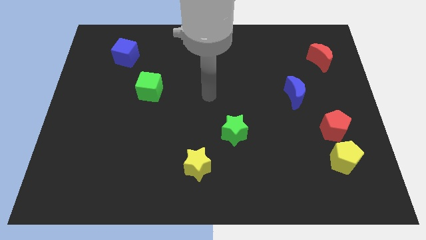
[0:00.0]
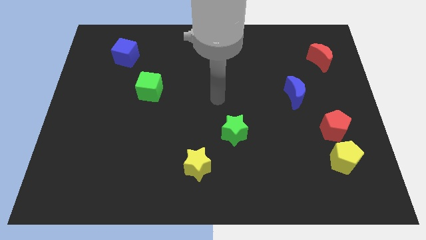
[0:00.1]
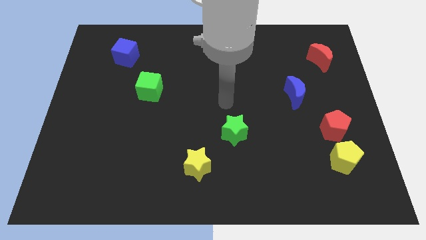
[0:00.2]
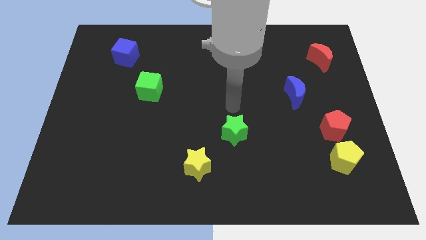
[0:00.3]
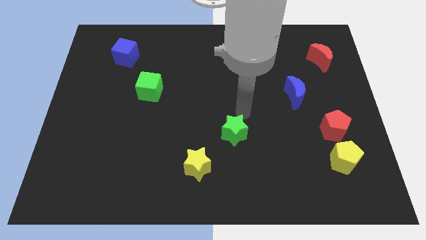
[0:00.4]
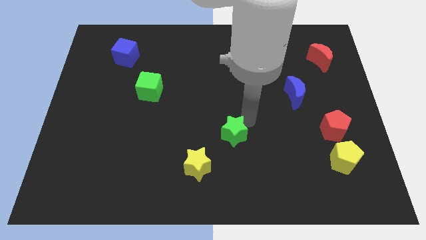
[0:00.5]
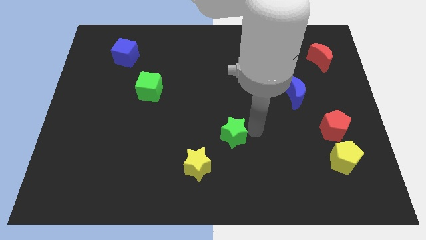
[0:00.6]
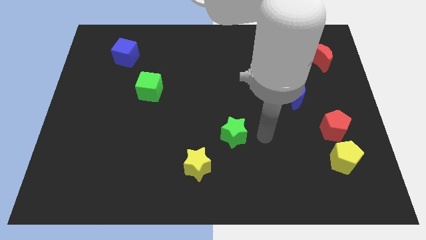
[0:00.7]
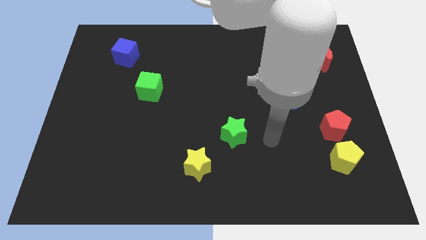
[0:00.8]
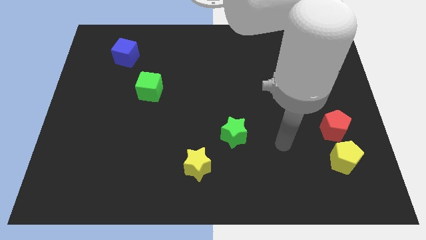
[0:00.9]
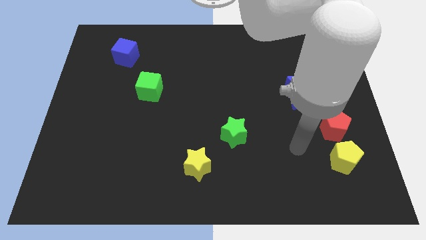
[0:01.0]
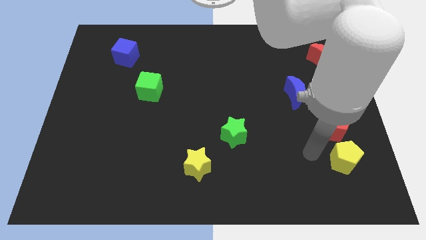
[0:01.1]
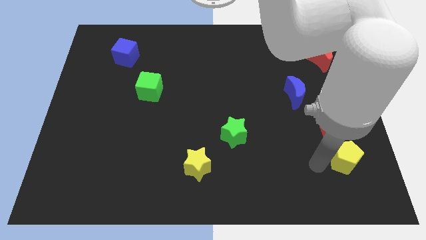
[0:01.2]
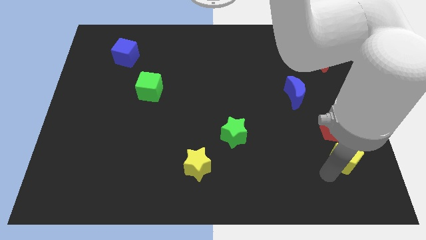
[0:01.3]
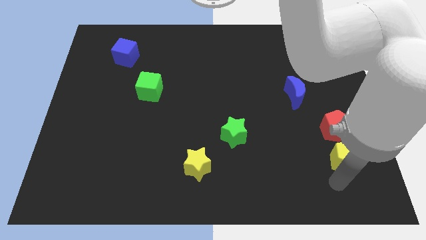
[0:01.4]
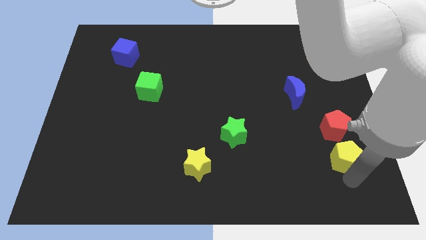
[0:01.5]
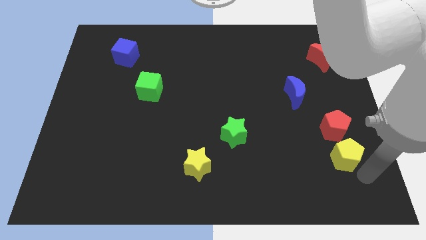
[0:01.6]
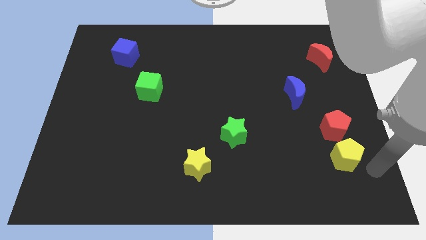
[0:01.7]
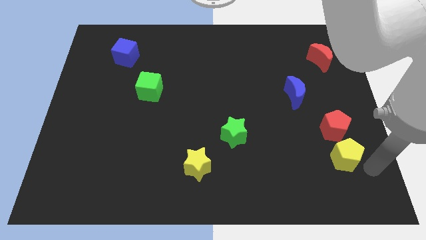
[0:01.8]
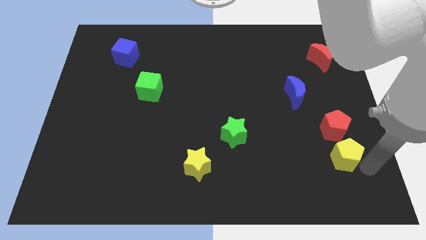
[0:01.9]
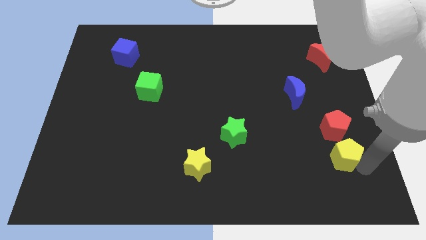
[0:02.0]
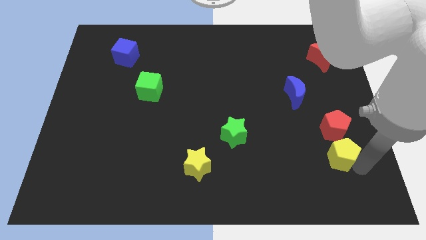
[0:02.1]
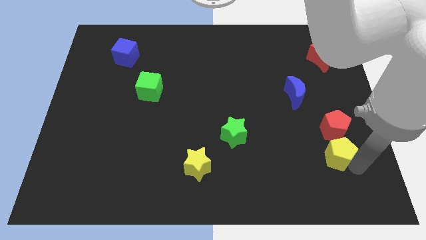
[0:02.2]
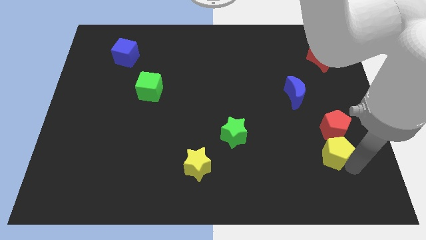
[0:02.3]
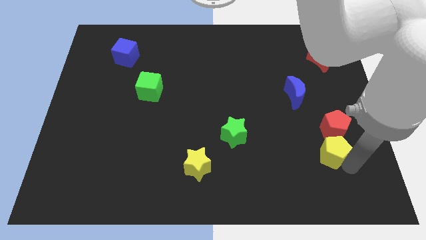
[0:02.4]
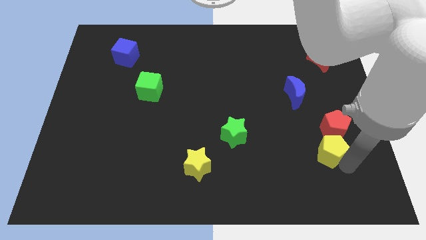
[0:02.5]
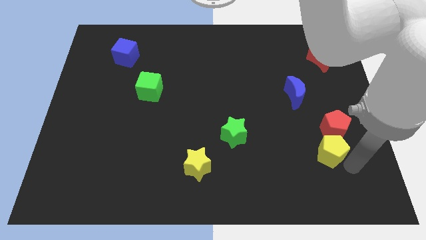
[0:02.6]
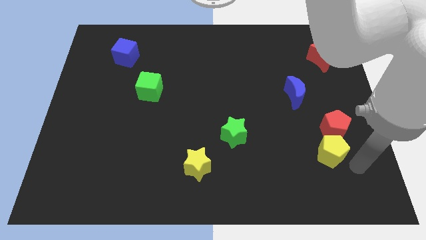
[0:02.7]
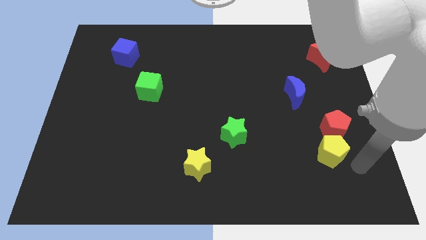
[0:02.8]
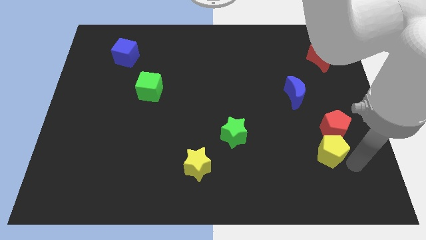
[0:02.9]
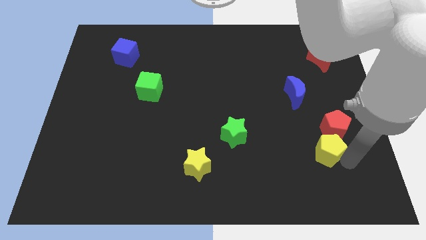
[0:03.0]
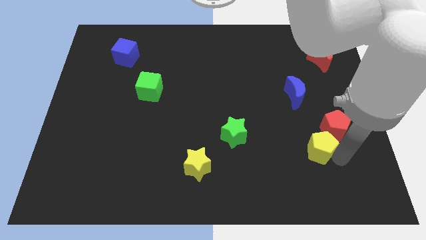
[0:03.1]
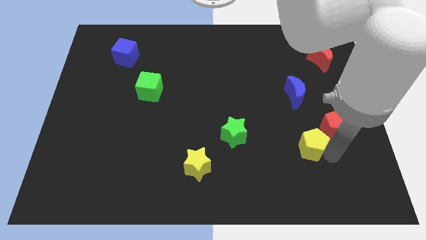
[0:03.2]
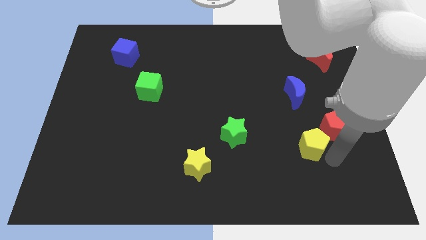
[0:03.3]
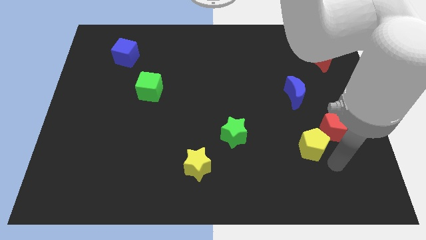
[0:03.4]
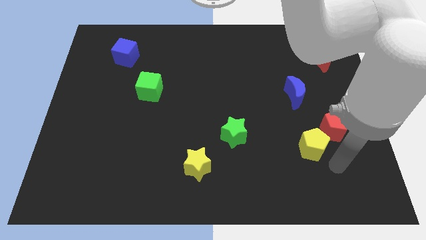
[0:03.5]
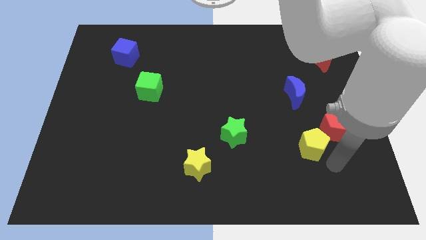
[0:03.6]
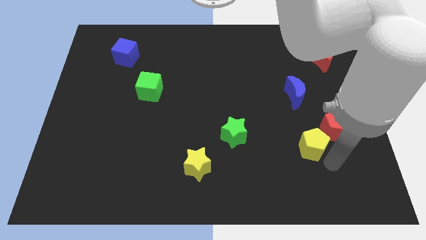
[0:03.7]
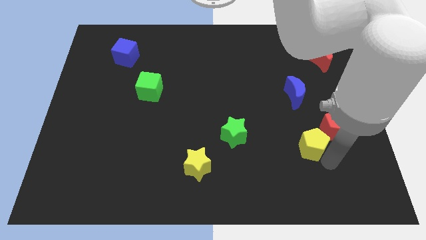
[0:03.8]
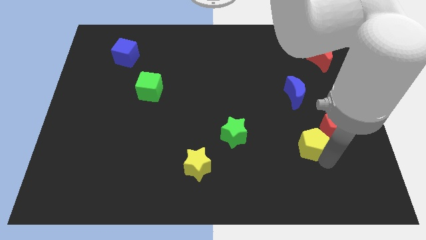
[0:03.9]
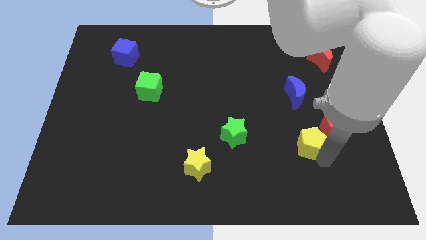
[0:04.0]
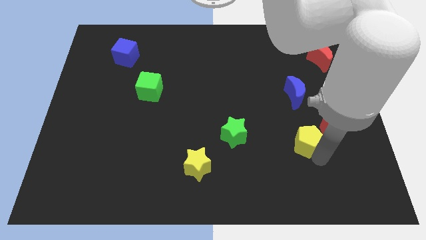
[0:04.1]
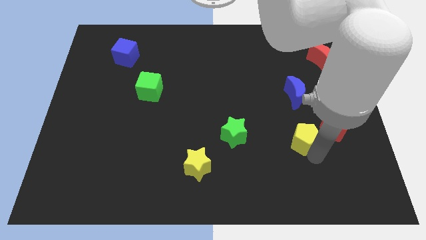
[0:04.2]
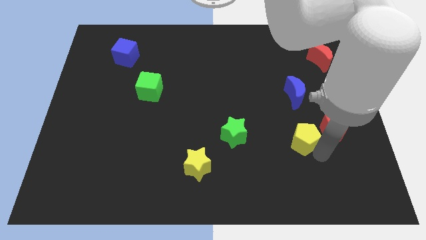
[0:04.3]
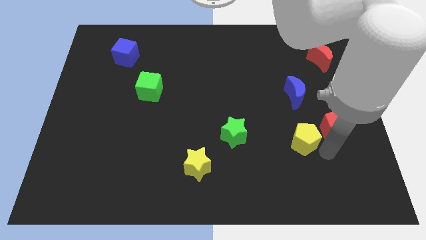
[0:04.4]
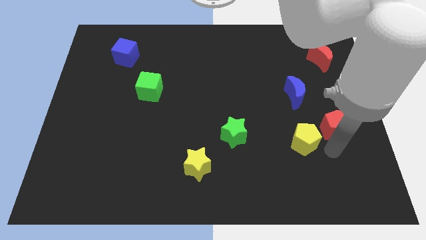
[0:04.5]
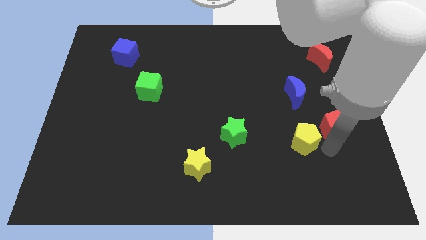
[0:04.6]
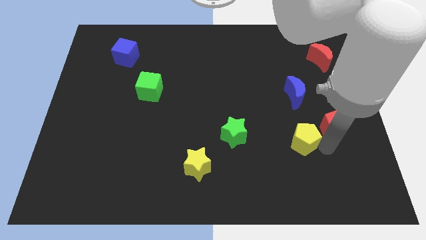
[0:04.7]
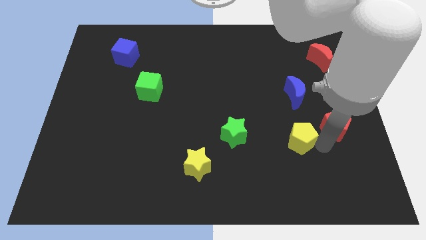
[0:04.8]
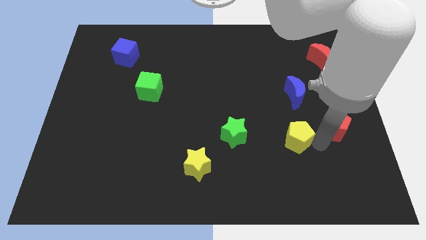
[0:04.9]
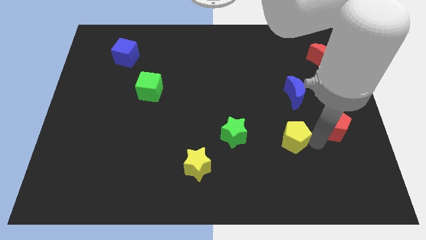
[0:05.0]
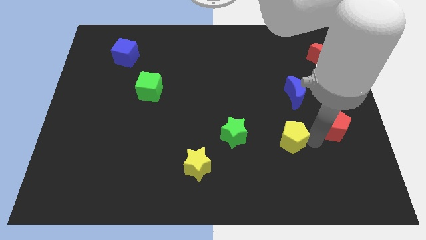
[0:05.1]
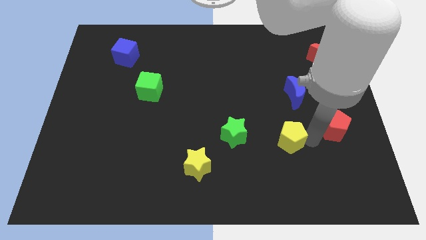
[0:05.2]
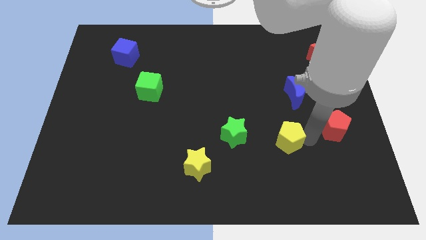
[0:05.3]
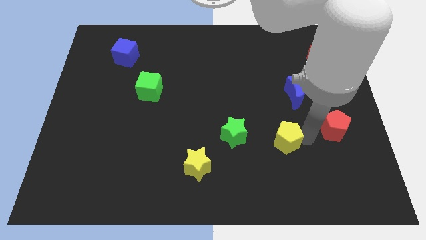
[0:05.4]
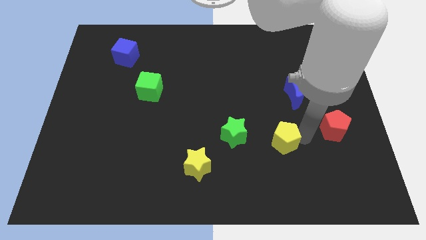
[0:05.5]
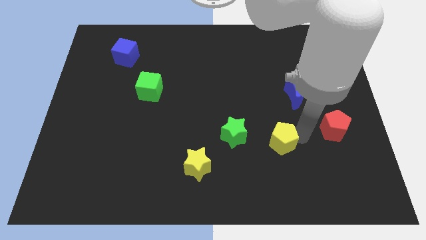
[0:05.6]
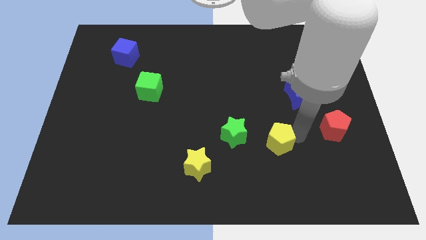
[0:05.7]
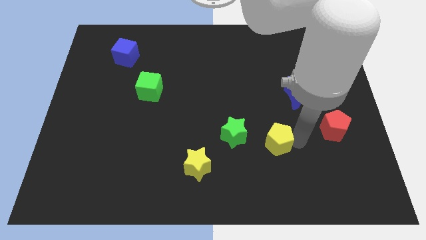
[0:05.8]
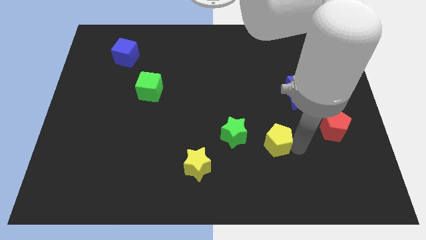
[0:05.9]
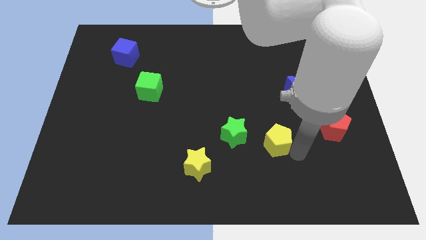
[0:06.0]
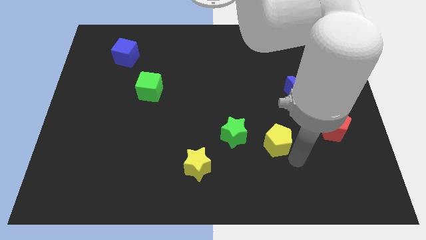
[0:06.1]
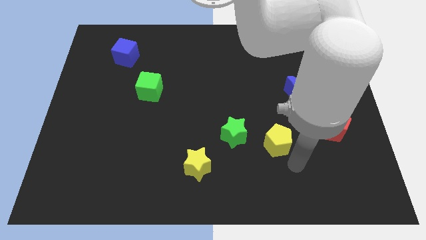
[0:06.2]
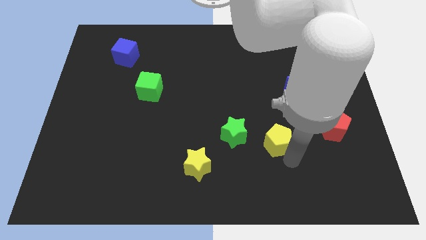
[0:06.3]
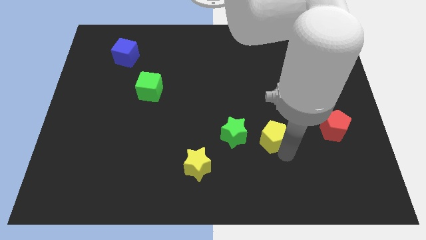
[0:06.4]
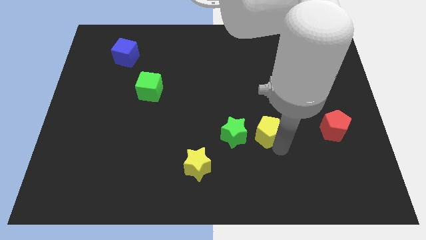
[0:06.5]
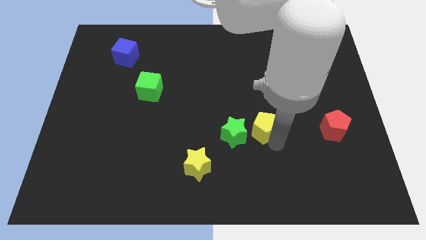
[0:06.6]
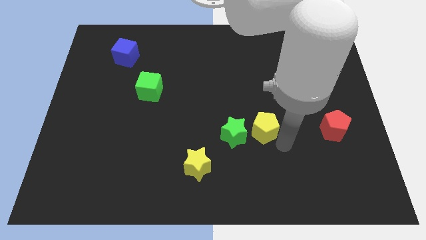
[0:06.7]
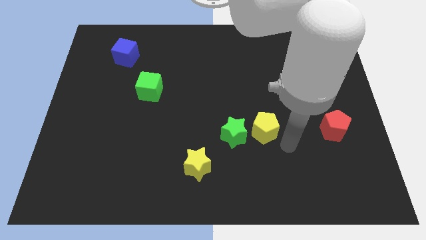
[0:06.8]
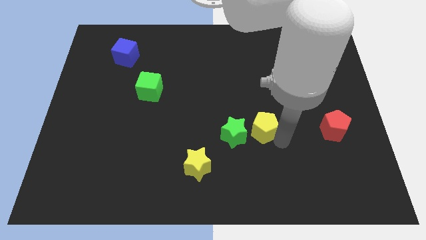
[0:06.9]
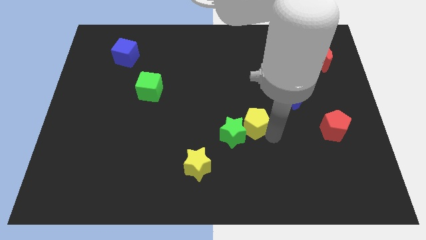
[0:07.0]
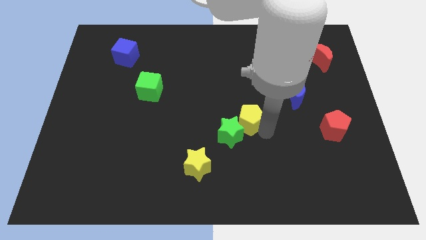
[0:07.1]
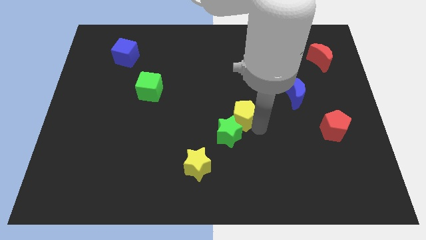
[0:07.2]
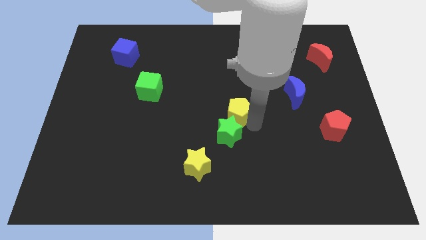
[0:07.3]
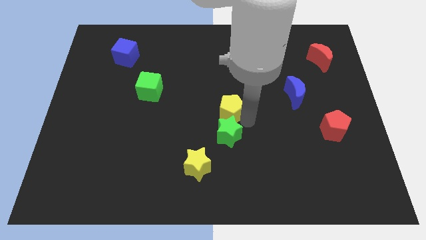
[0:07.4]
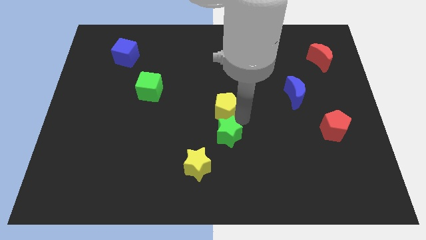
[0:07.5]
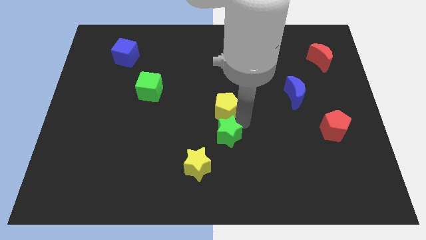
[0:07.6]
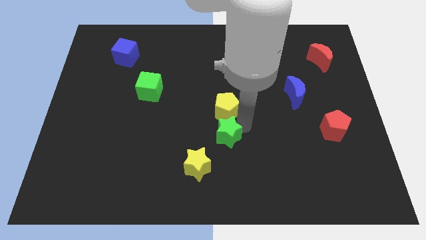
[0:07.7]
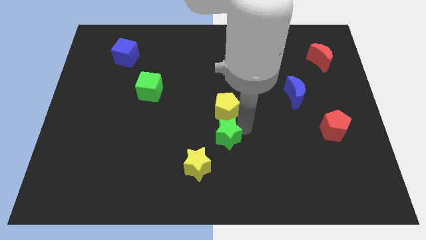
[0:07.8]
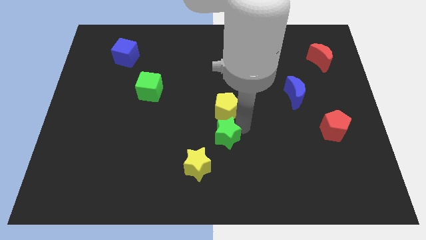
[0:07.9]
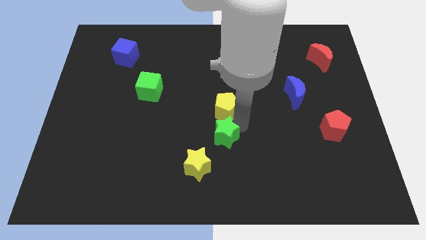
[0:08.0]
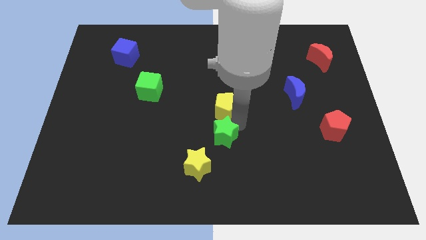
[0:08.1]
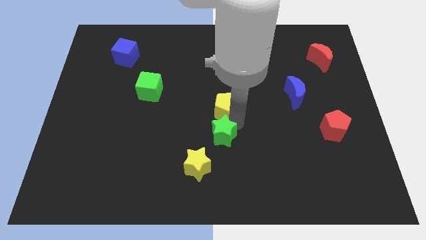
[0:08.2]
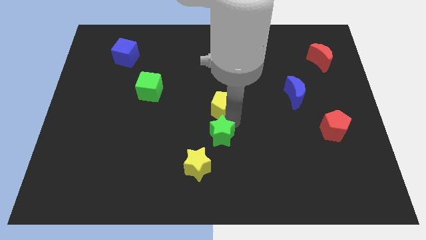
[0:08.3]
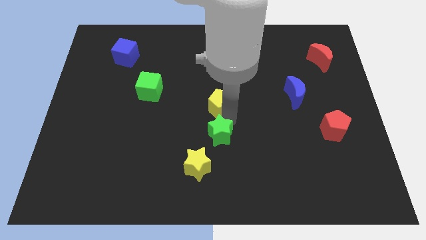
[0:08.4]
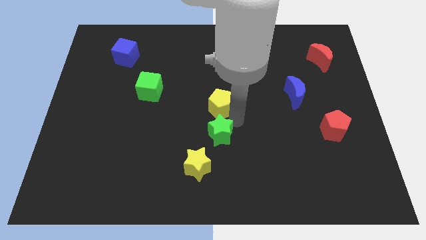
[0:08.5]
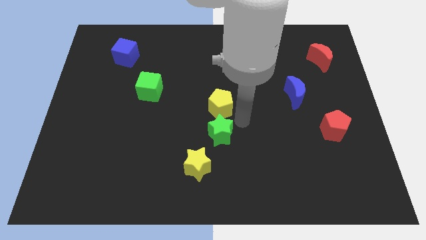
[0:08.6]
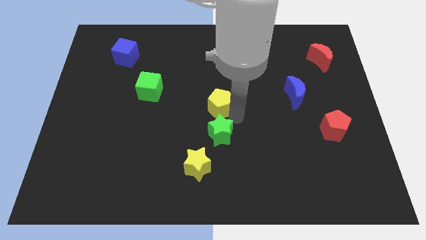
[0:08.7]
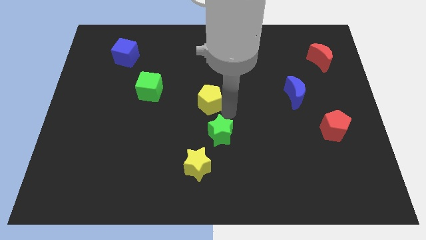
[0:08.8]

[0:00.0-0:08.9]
move the yellow pentagon right of the green cube
